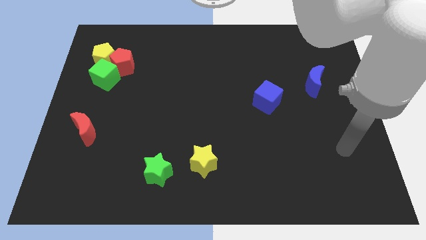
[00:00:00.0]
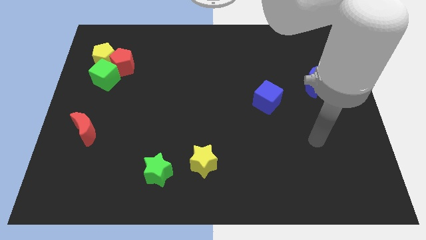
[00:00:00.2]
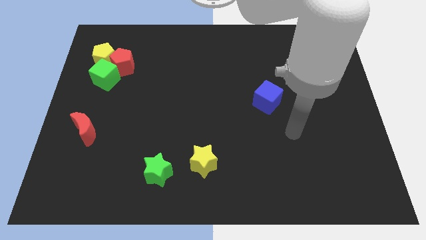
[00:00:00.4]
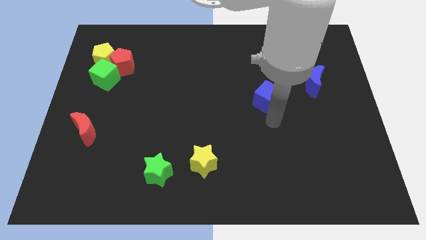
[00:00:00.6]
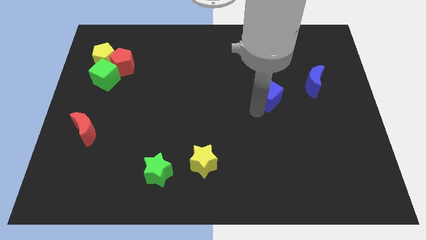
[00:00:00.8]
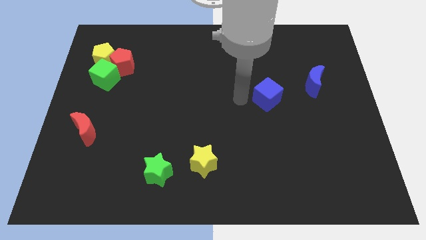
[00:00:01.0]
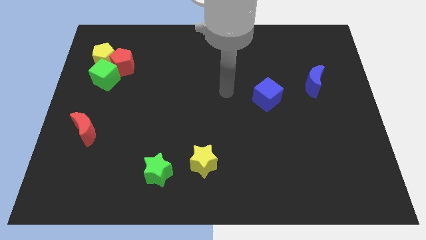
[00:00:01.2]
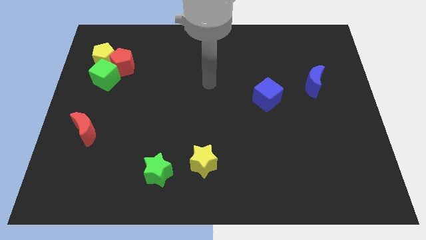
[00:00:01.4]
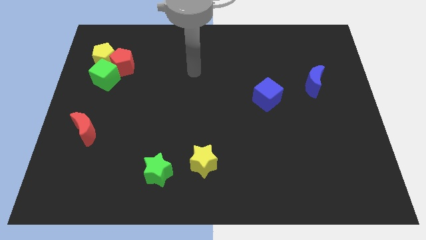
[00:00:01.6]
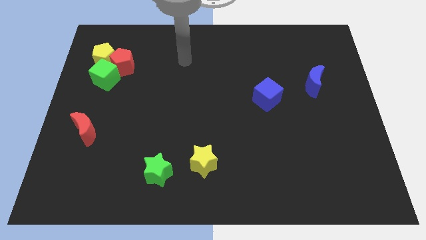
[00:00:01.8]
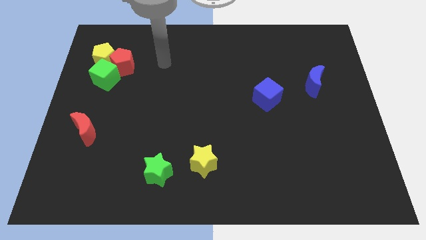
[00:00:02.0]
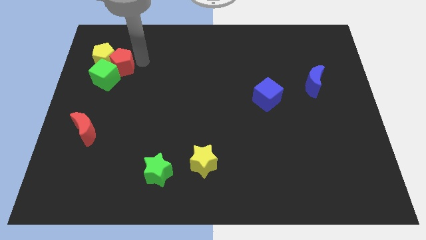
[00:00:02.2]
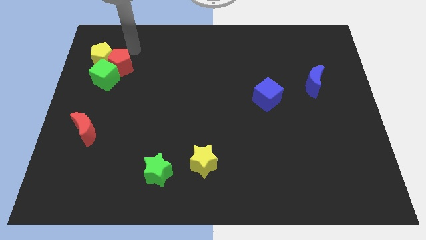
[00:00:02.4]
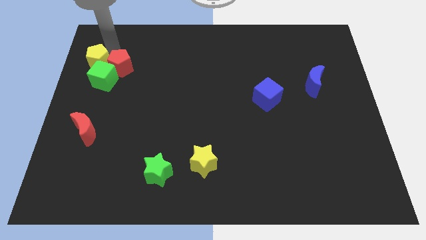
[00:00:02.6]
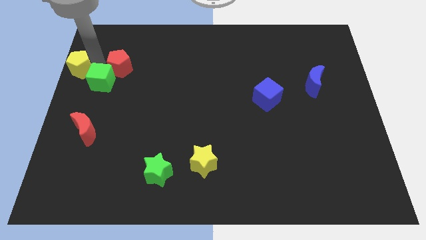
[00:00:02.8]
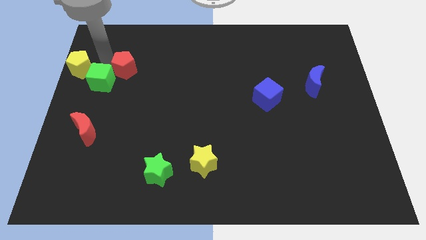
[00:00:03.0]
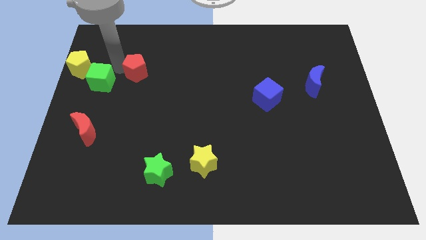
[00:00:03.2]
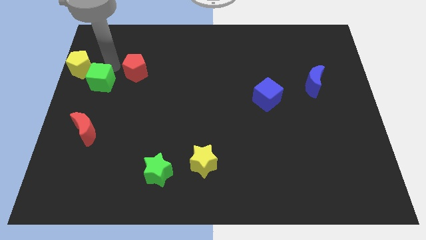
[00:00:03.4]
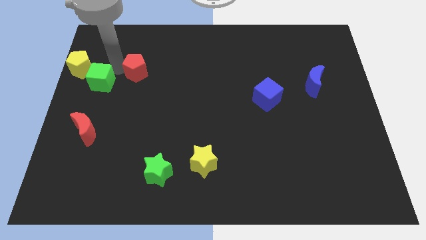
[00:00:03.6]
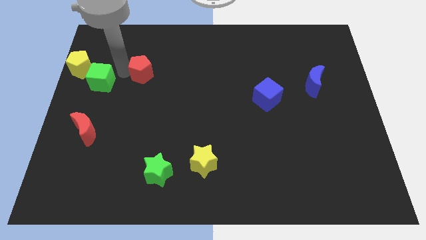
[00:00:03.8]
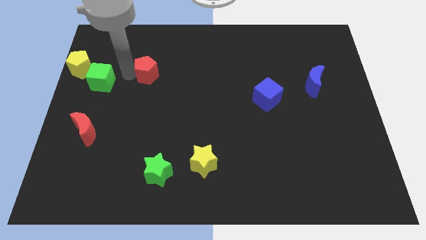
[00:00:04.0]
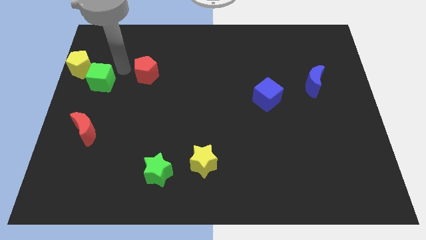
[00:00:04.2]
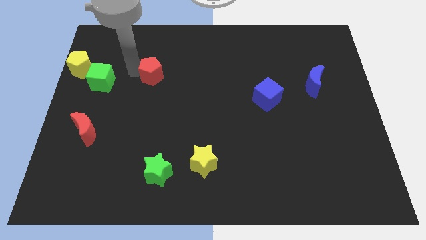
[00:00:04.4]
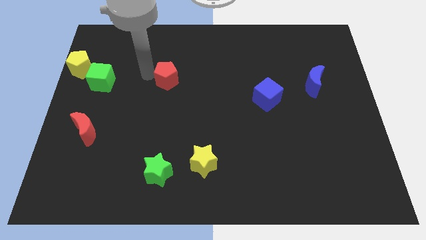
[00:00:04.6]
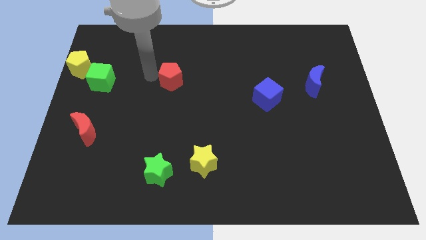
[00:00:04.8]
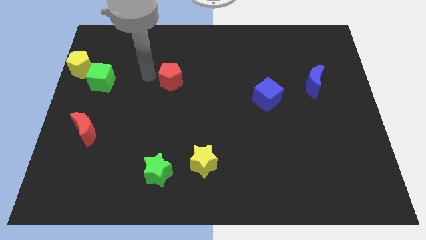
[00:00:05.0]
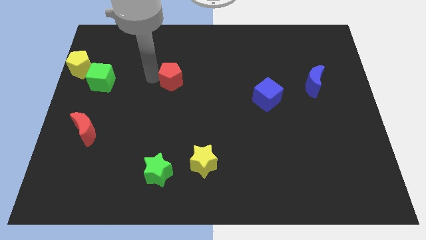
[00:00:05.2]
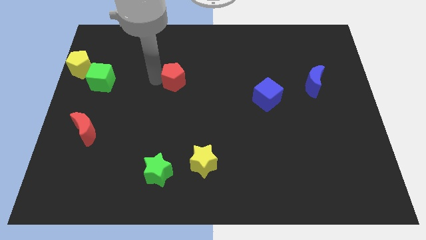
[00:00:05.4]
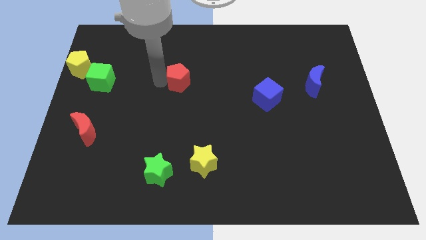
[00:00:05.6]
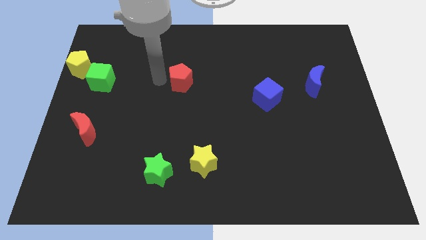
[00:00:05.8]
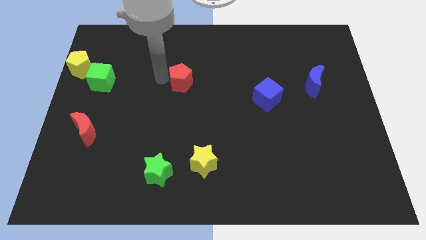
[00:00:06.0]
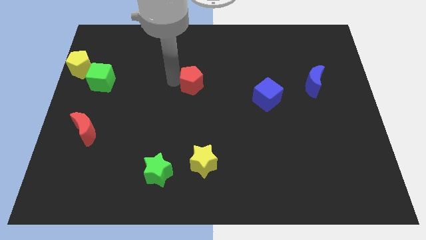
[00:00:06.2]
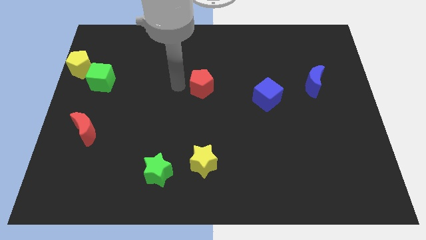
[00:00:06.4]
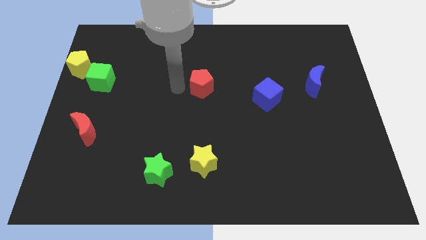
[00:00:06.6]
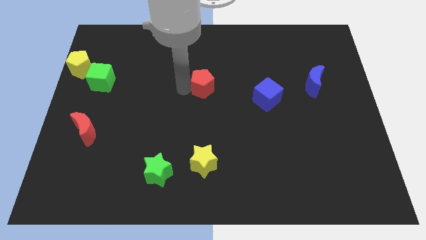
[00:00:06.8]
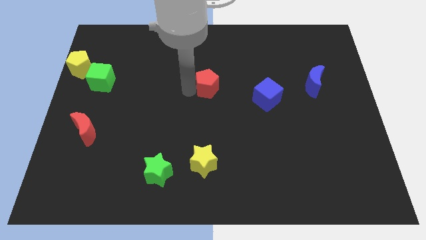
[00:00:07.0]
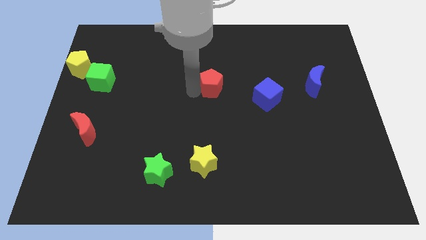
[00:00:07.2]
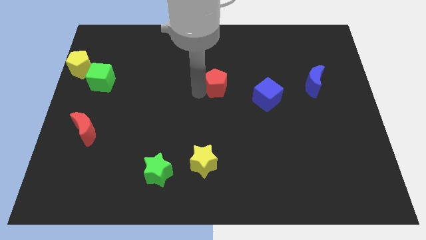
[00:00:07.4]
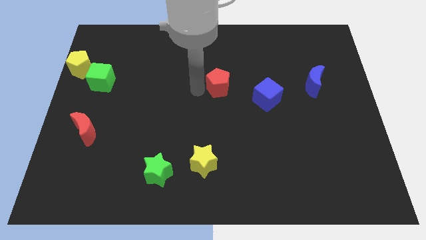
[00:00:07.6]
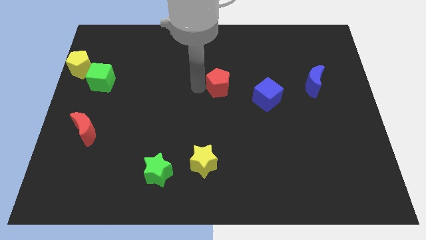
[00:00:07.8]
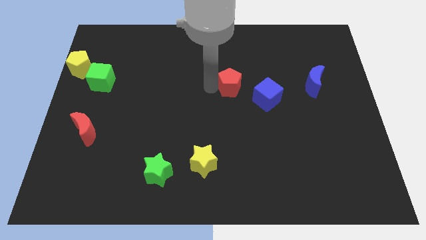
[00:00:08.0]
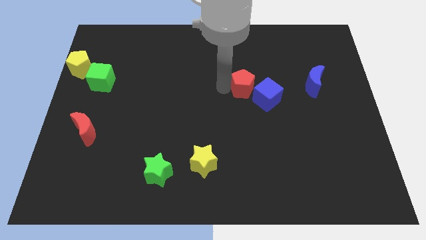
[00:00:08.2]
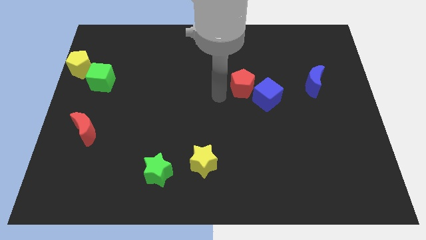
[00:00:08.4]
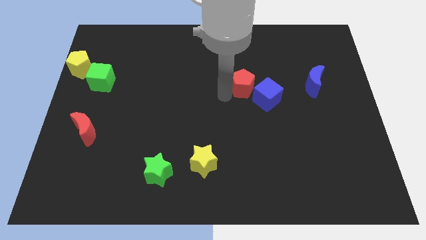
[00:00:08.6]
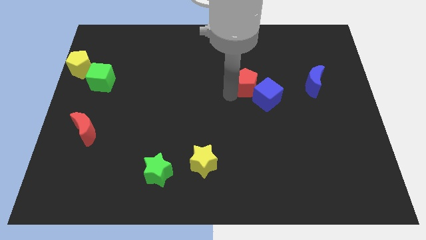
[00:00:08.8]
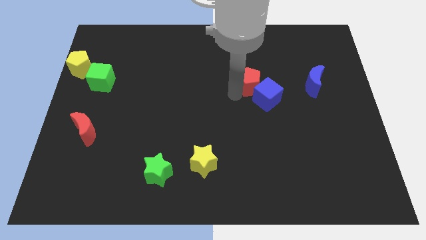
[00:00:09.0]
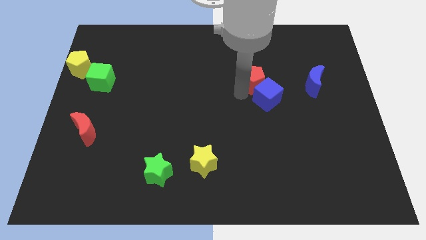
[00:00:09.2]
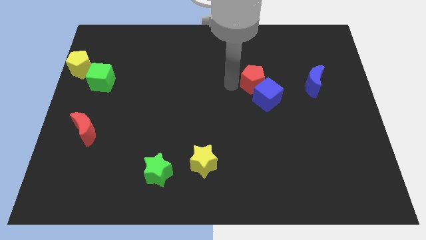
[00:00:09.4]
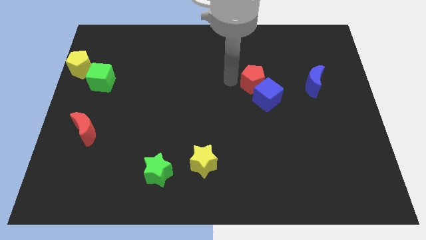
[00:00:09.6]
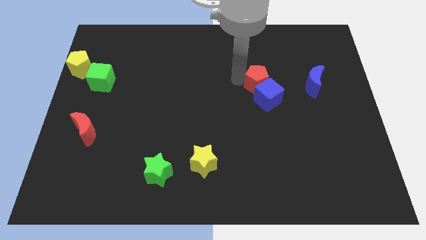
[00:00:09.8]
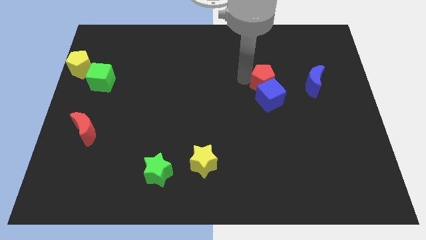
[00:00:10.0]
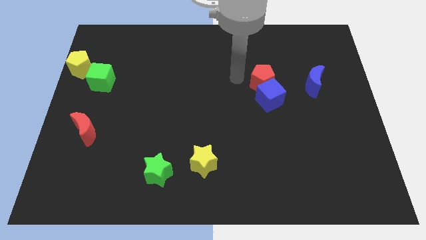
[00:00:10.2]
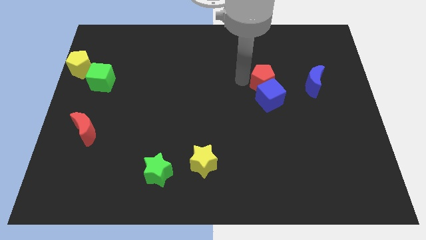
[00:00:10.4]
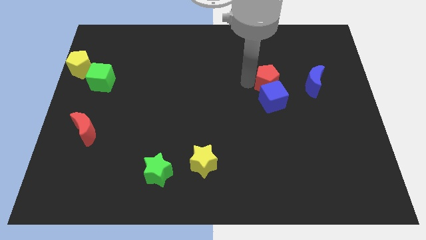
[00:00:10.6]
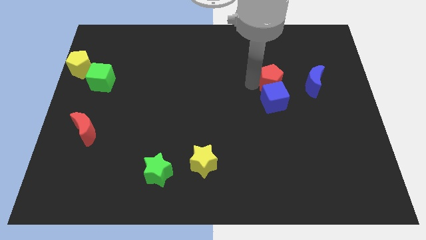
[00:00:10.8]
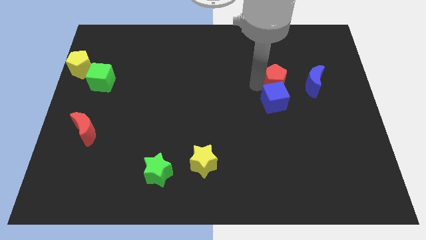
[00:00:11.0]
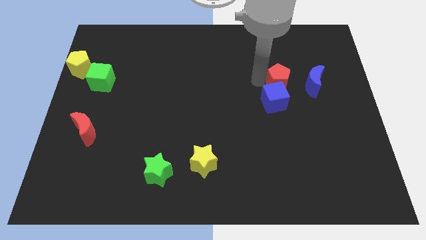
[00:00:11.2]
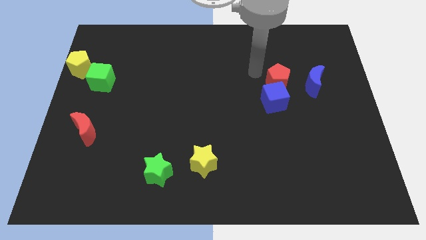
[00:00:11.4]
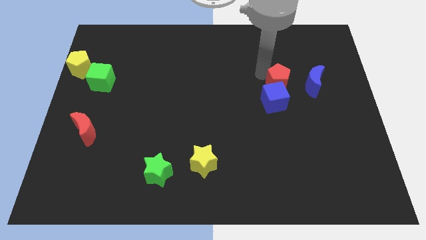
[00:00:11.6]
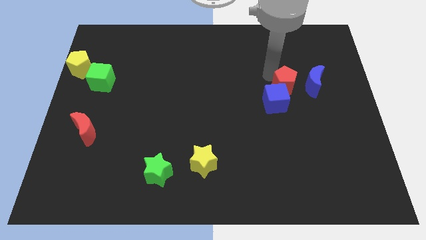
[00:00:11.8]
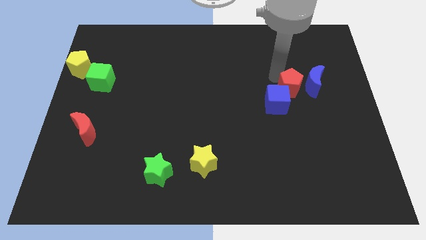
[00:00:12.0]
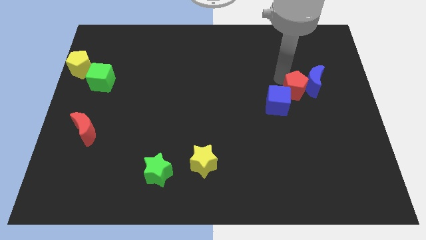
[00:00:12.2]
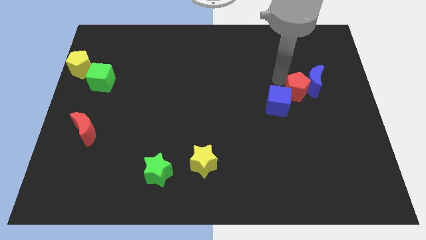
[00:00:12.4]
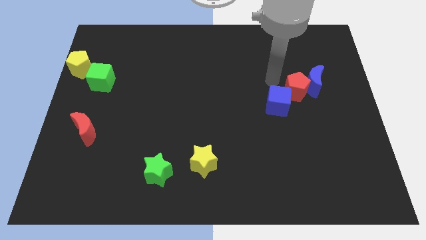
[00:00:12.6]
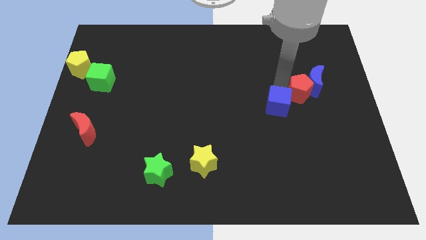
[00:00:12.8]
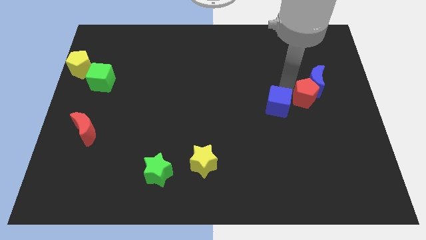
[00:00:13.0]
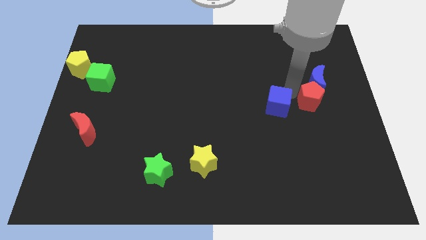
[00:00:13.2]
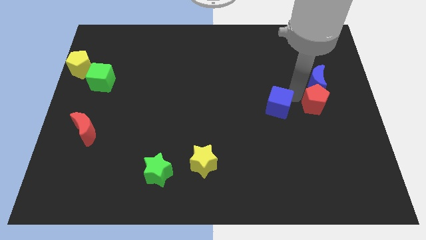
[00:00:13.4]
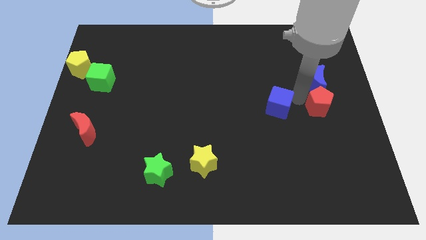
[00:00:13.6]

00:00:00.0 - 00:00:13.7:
move the red pentagon to the right side
